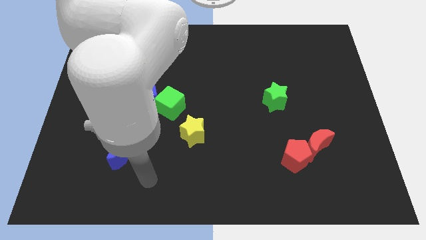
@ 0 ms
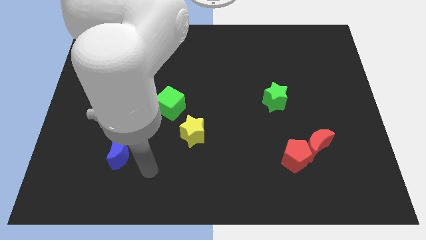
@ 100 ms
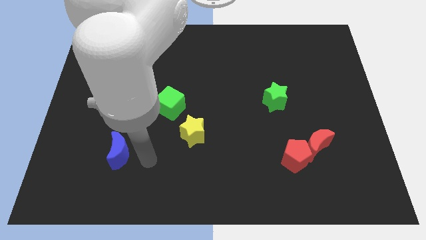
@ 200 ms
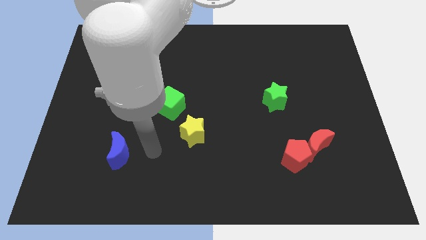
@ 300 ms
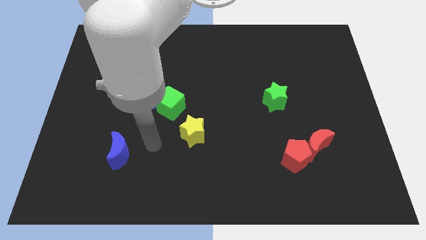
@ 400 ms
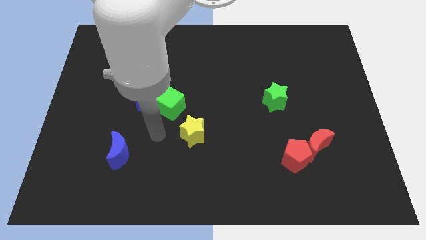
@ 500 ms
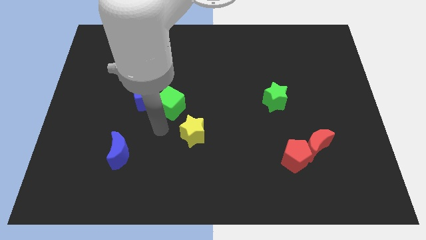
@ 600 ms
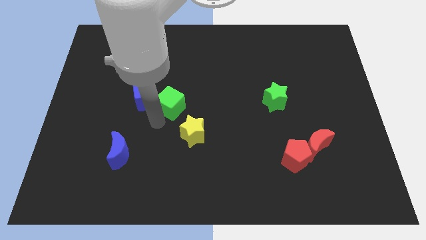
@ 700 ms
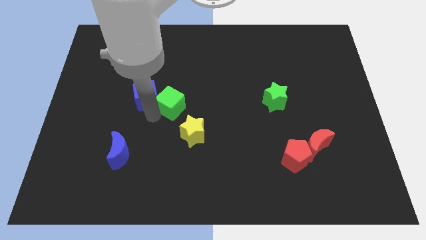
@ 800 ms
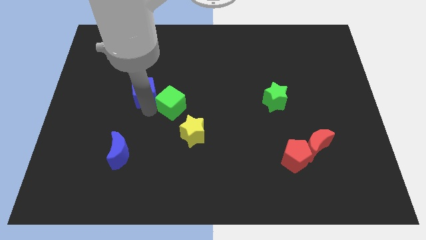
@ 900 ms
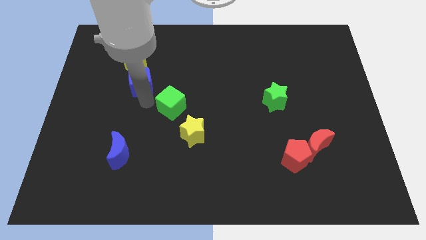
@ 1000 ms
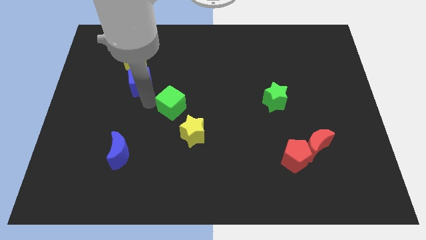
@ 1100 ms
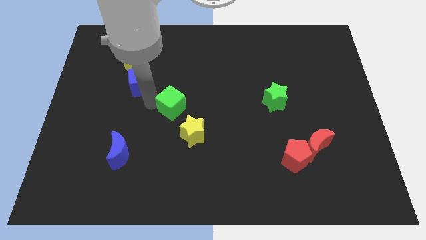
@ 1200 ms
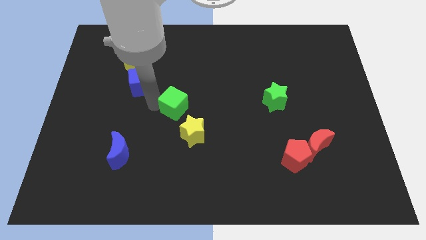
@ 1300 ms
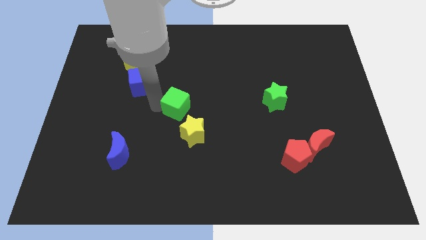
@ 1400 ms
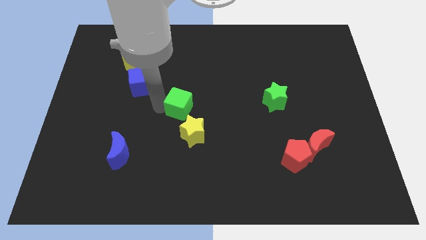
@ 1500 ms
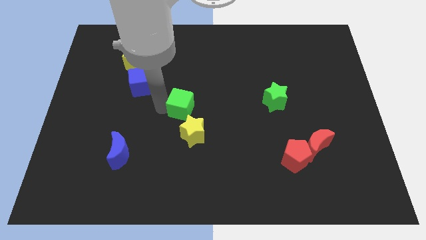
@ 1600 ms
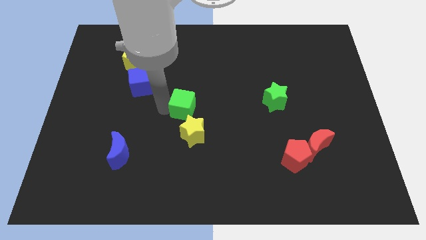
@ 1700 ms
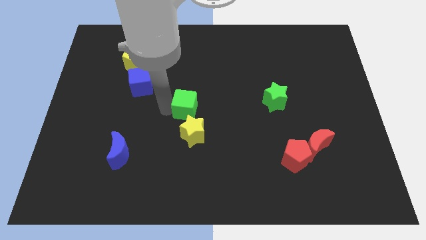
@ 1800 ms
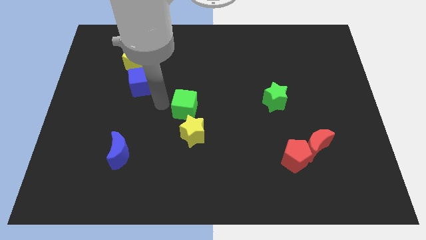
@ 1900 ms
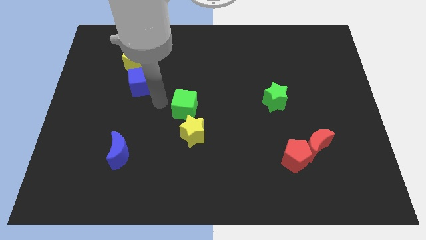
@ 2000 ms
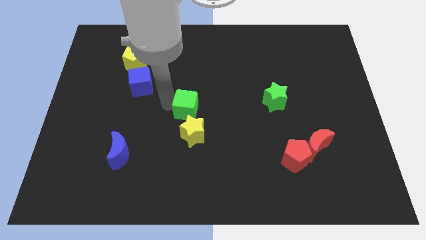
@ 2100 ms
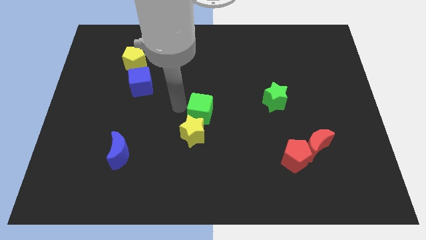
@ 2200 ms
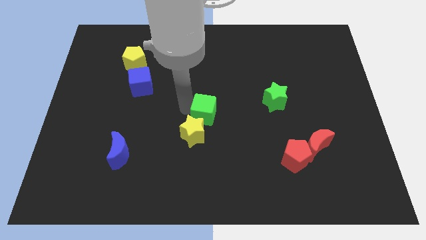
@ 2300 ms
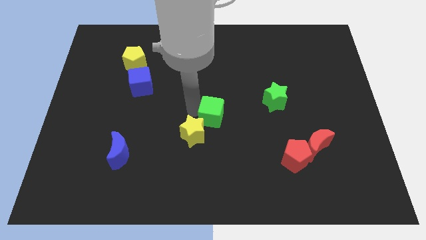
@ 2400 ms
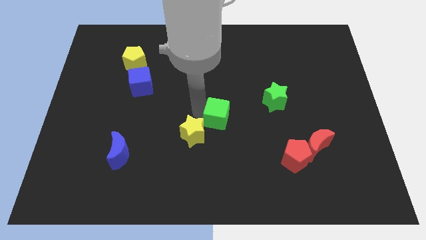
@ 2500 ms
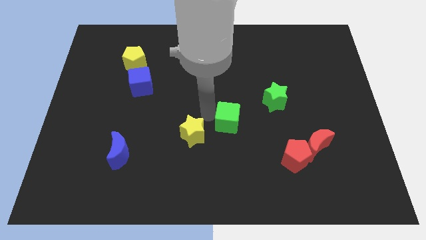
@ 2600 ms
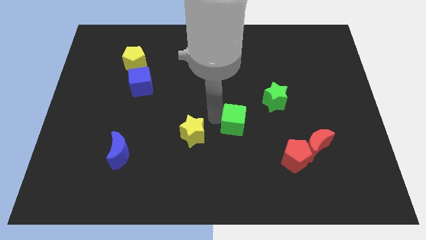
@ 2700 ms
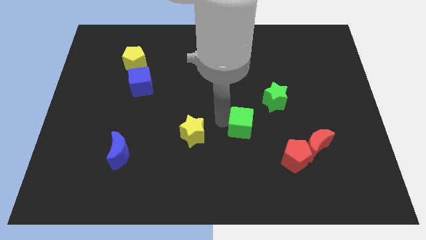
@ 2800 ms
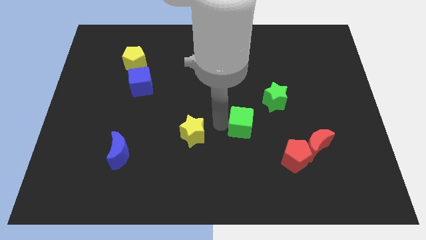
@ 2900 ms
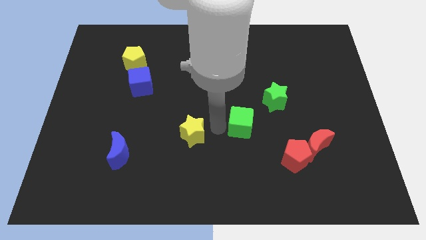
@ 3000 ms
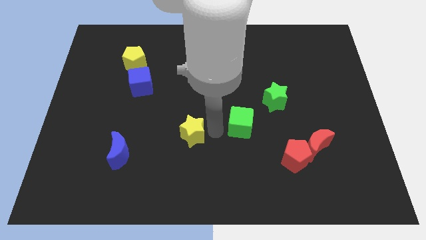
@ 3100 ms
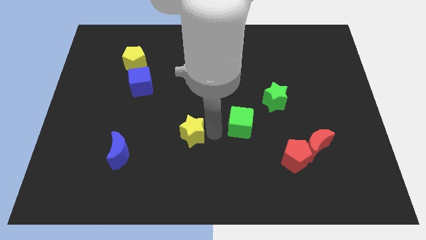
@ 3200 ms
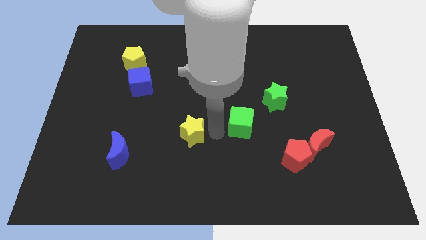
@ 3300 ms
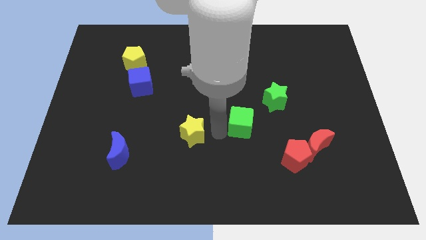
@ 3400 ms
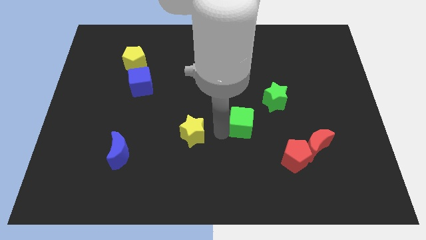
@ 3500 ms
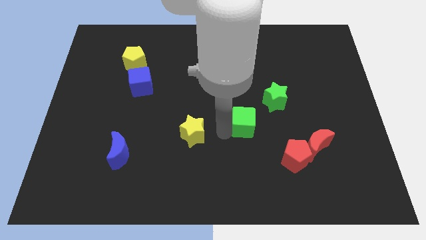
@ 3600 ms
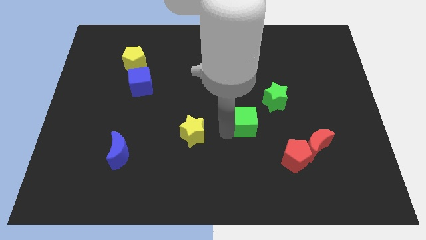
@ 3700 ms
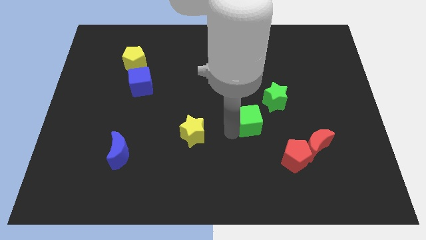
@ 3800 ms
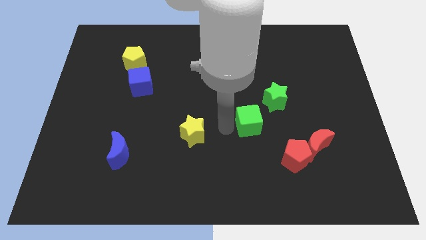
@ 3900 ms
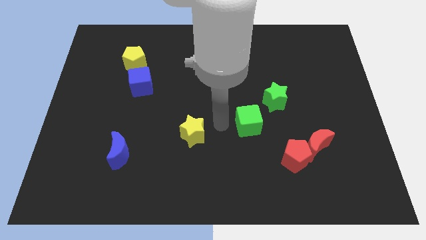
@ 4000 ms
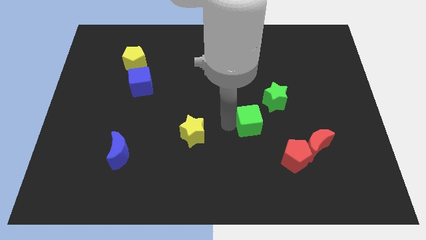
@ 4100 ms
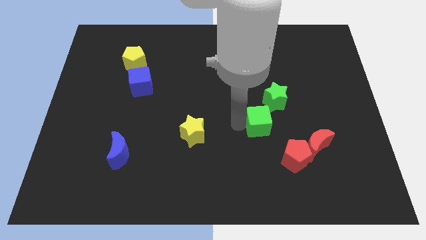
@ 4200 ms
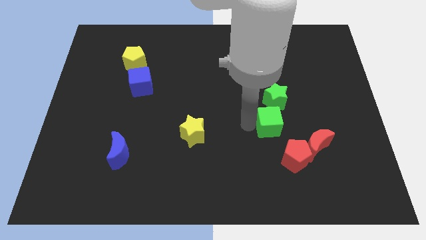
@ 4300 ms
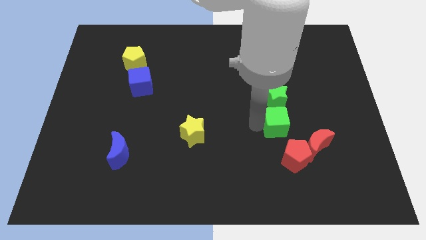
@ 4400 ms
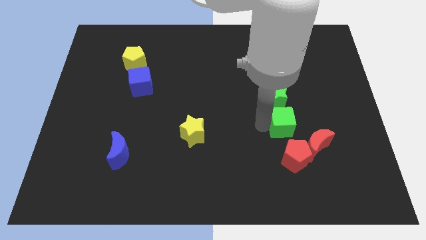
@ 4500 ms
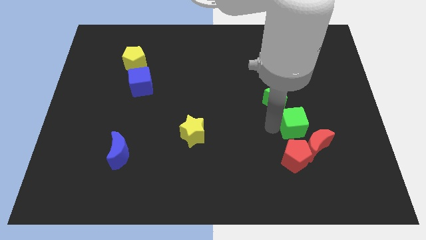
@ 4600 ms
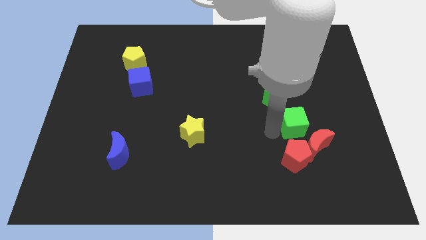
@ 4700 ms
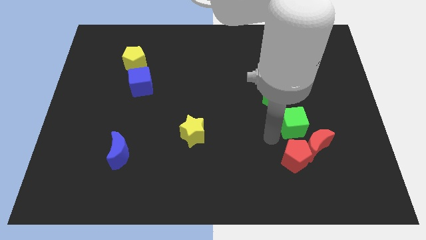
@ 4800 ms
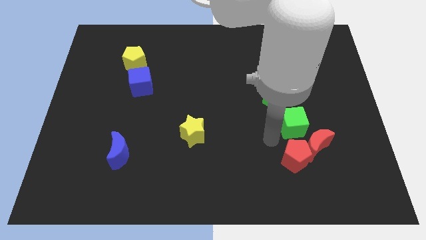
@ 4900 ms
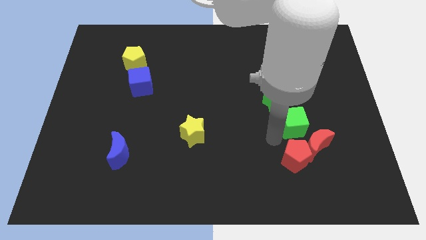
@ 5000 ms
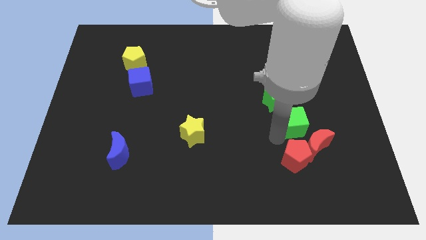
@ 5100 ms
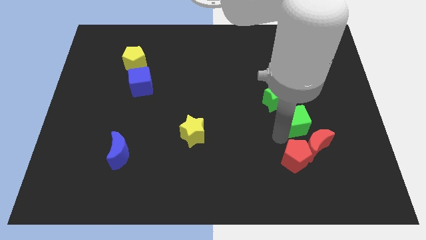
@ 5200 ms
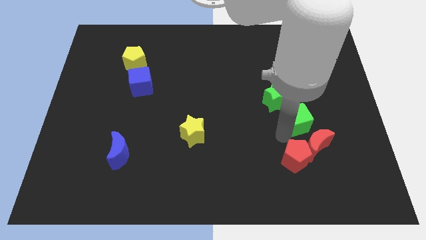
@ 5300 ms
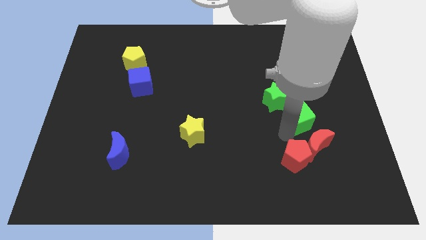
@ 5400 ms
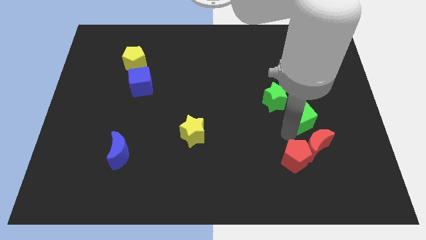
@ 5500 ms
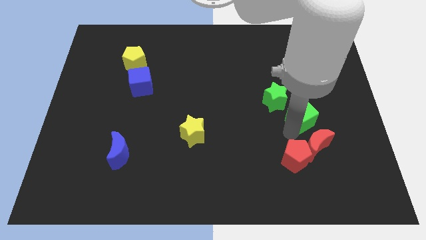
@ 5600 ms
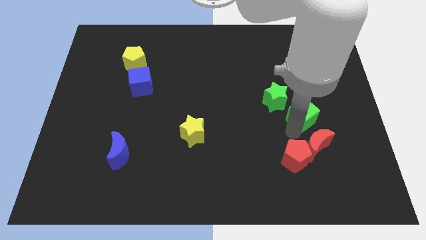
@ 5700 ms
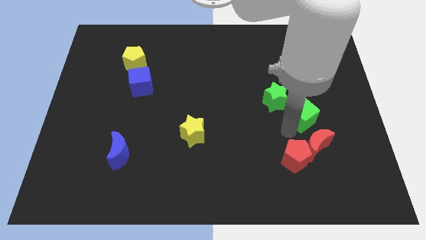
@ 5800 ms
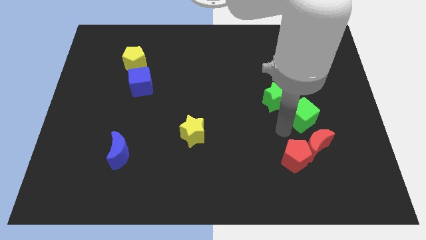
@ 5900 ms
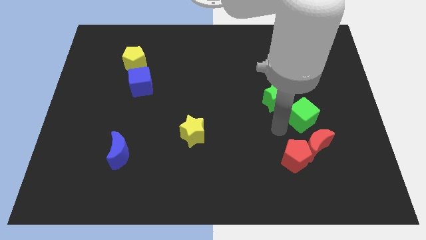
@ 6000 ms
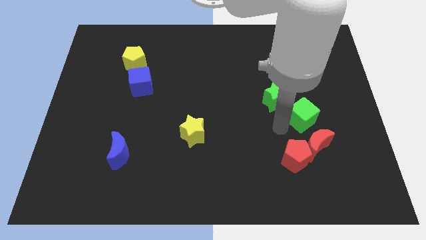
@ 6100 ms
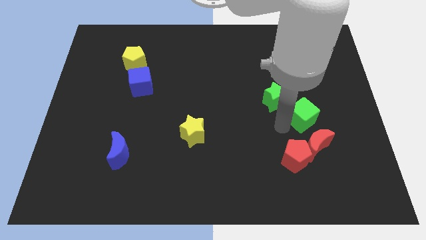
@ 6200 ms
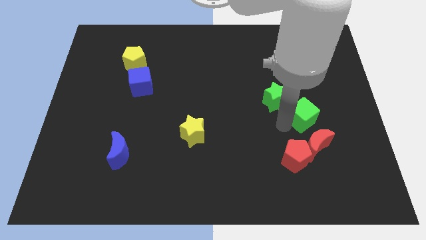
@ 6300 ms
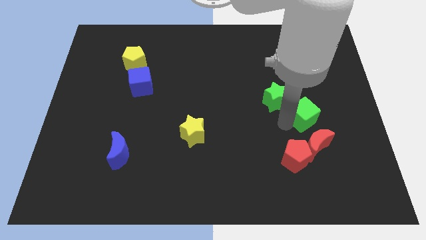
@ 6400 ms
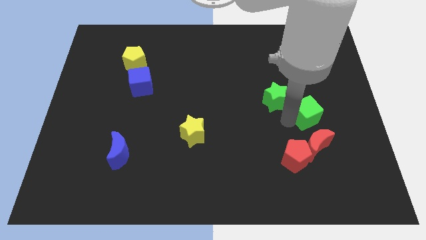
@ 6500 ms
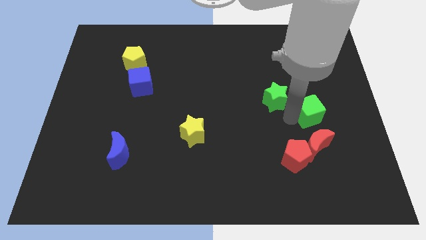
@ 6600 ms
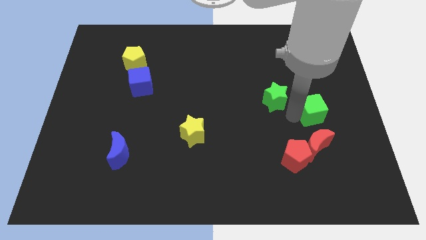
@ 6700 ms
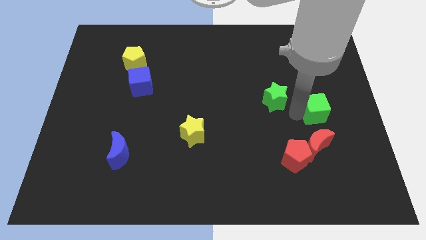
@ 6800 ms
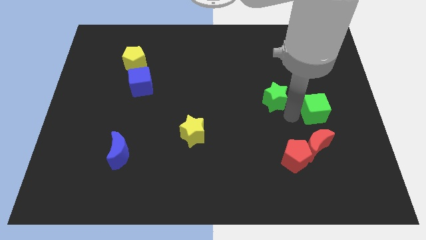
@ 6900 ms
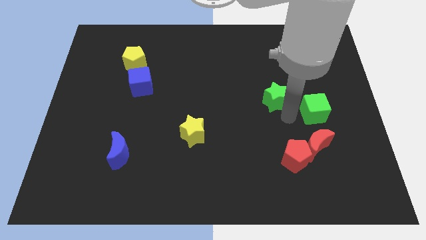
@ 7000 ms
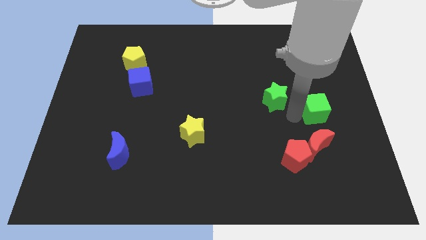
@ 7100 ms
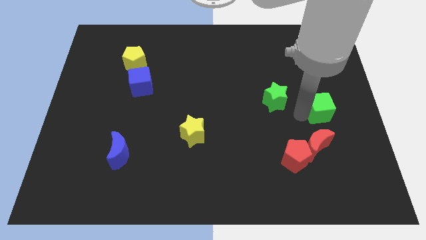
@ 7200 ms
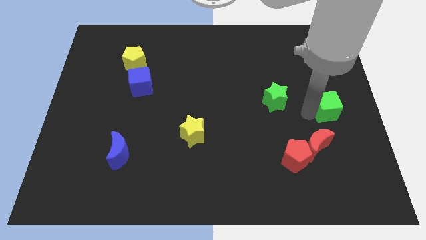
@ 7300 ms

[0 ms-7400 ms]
move the green cube to the center right
